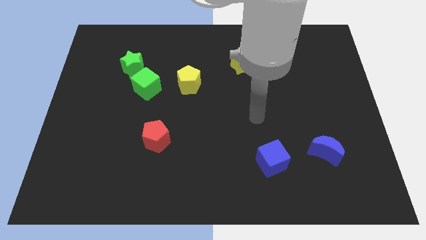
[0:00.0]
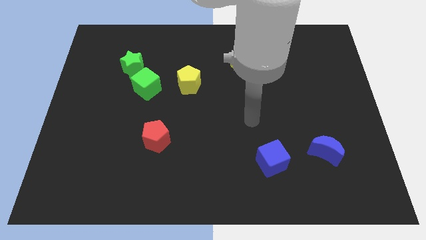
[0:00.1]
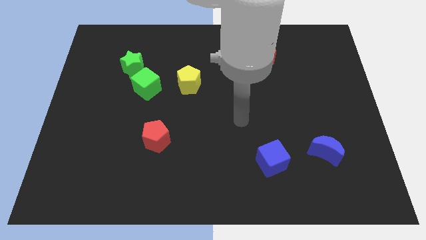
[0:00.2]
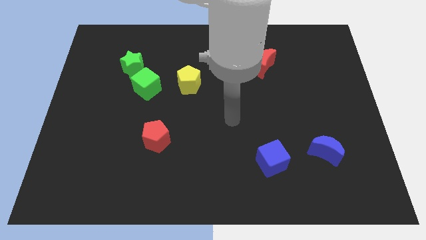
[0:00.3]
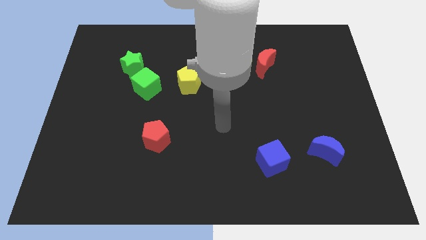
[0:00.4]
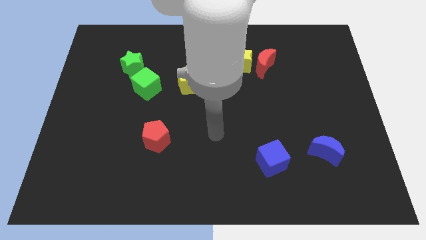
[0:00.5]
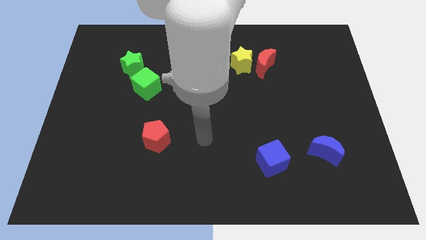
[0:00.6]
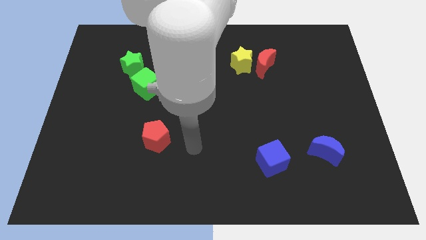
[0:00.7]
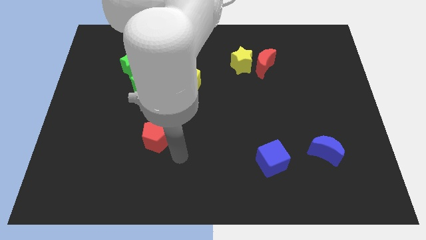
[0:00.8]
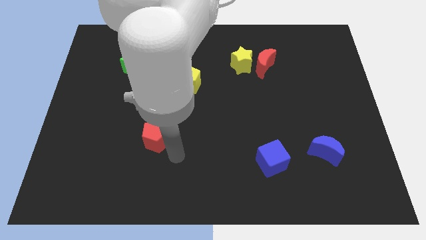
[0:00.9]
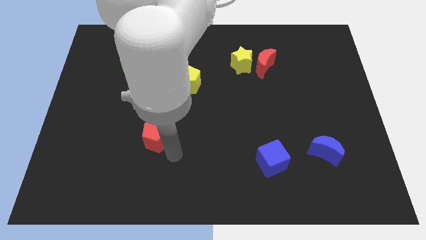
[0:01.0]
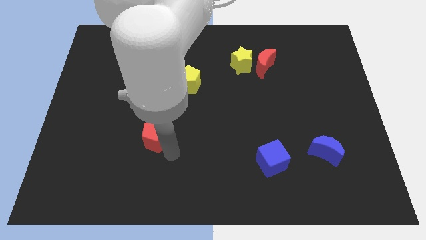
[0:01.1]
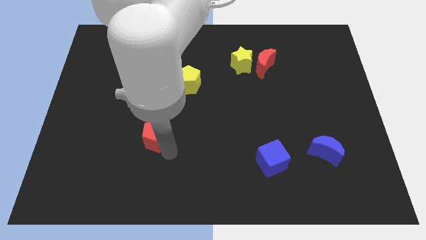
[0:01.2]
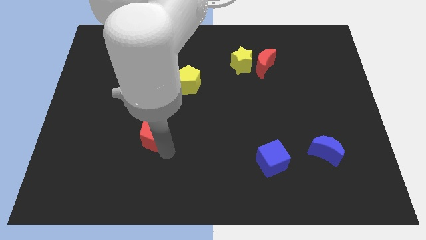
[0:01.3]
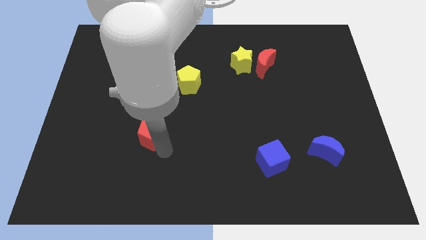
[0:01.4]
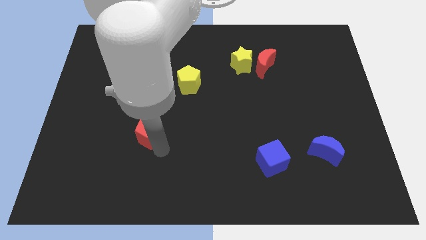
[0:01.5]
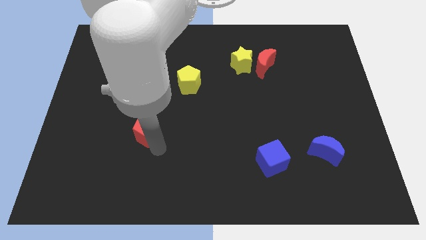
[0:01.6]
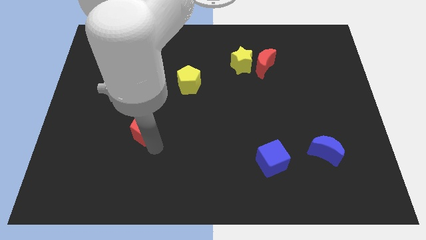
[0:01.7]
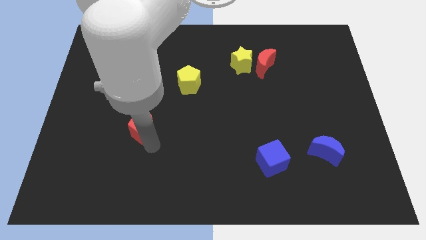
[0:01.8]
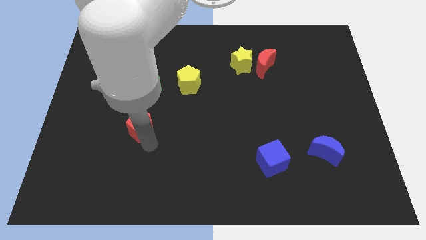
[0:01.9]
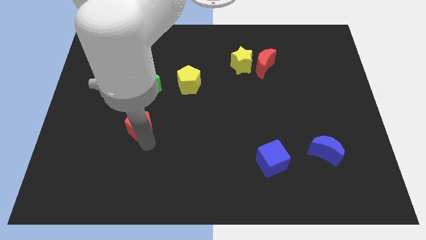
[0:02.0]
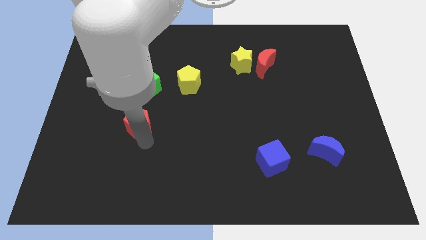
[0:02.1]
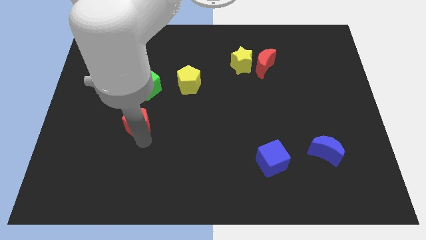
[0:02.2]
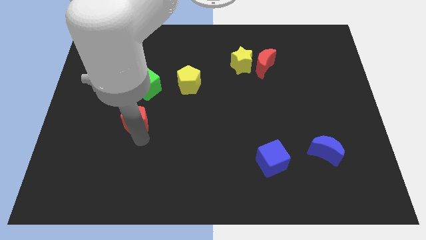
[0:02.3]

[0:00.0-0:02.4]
move the red pentagon slightly up and left diagonally

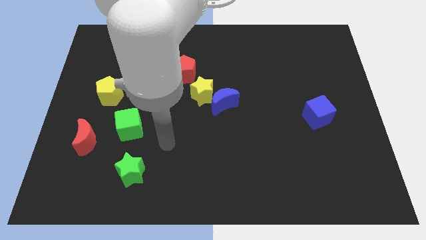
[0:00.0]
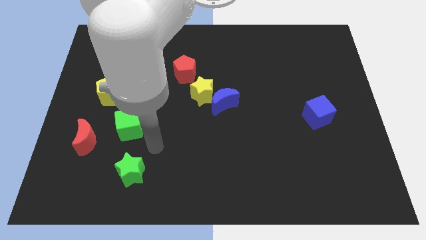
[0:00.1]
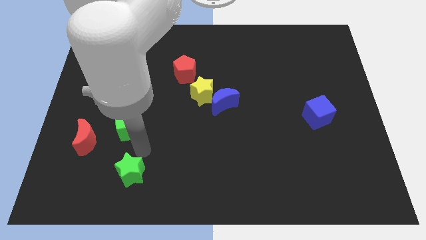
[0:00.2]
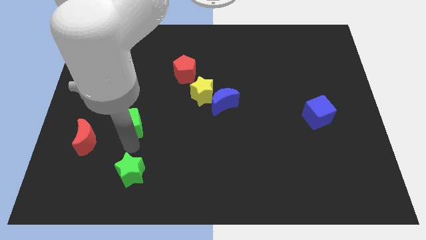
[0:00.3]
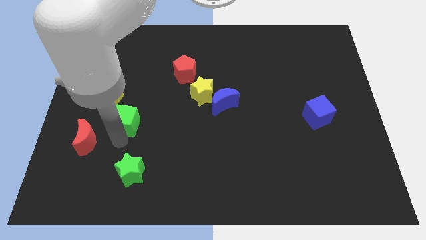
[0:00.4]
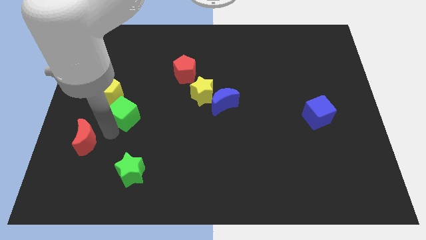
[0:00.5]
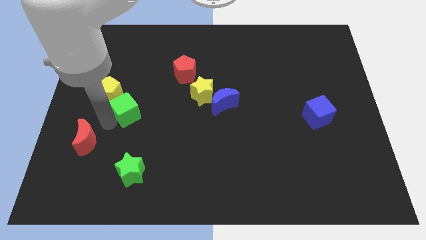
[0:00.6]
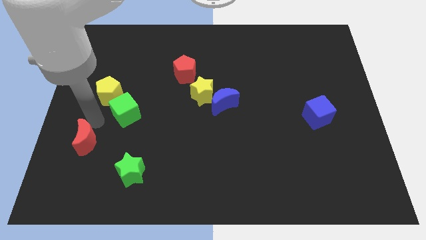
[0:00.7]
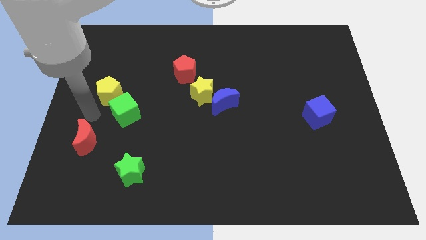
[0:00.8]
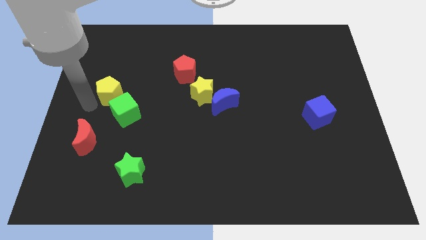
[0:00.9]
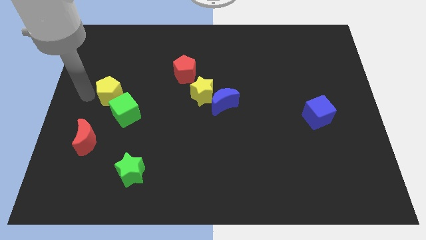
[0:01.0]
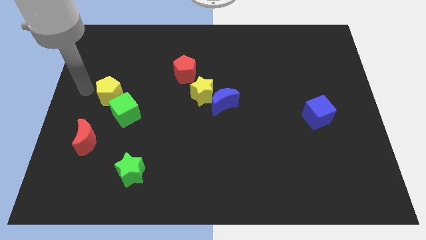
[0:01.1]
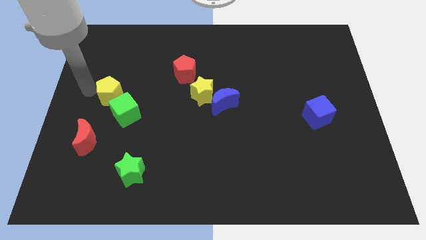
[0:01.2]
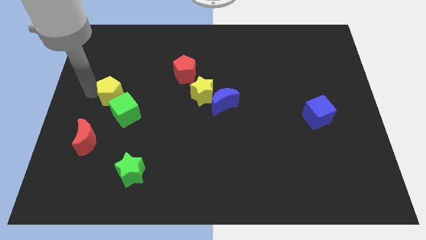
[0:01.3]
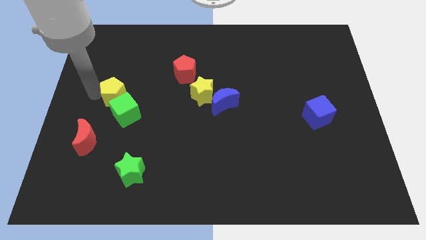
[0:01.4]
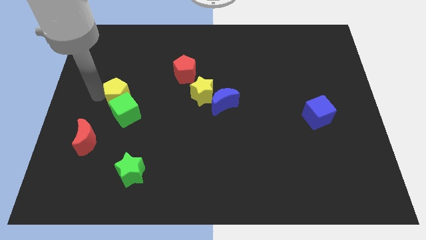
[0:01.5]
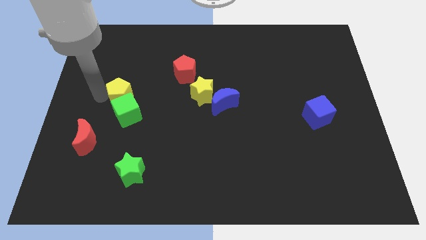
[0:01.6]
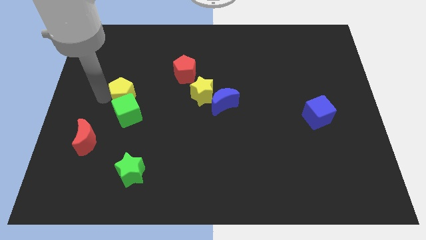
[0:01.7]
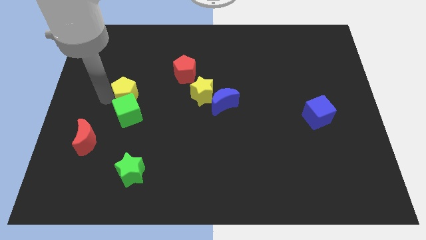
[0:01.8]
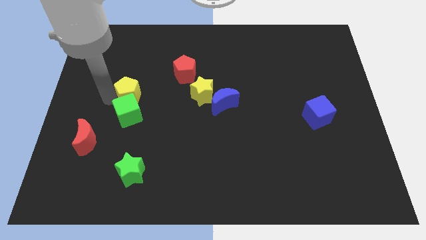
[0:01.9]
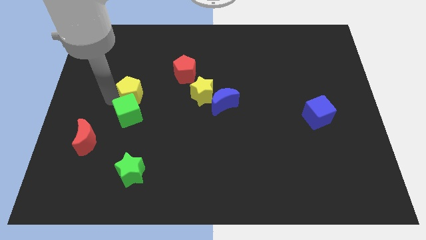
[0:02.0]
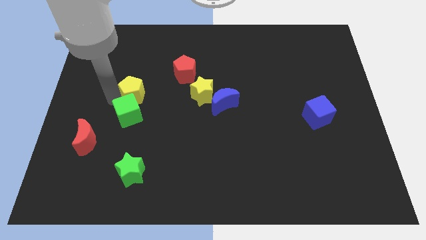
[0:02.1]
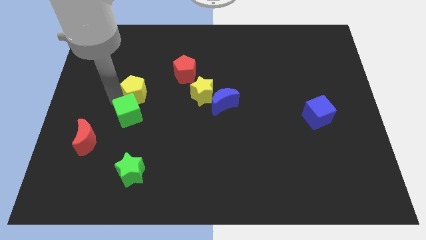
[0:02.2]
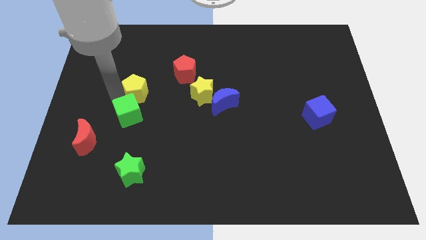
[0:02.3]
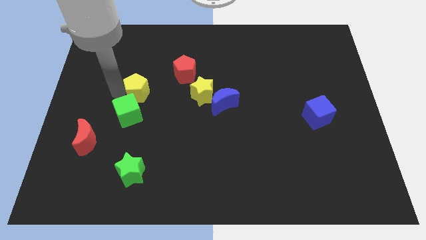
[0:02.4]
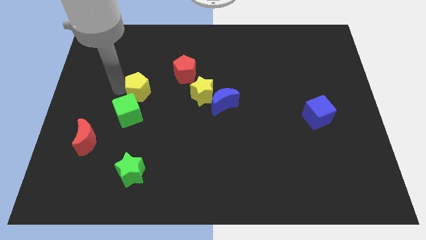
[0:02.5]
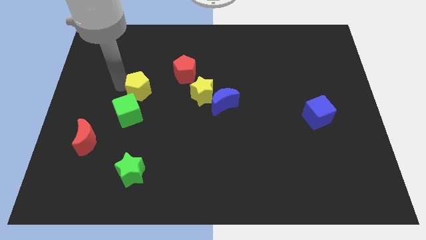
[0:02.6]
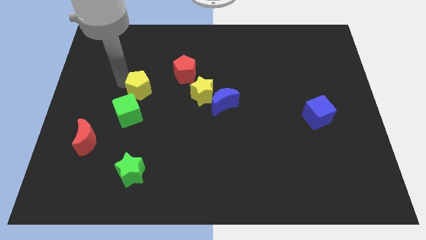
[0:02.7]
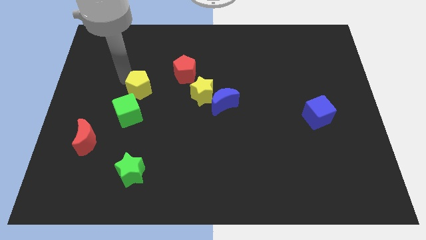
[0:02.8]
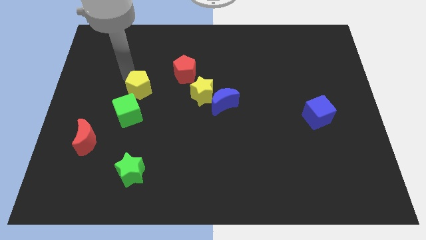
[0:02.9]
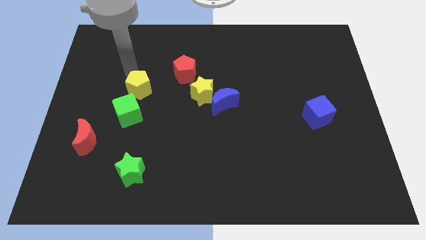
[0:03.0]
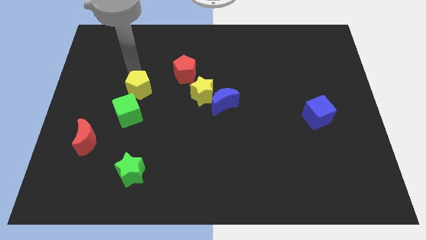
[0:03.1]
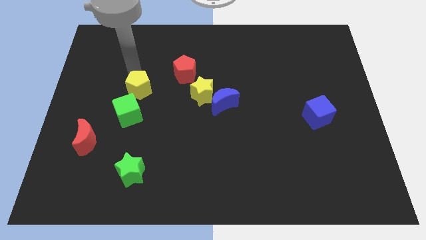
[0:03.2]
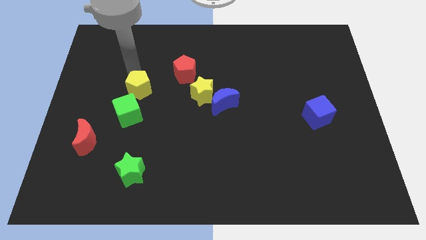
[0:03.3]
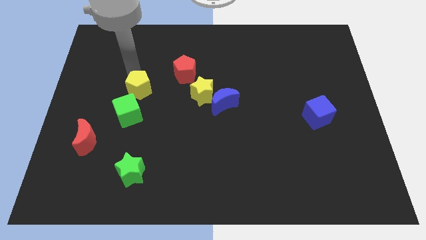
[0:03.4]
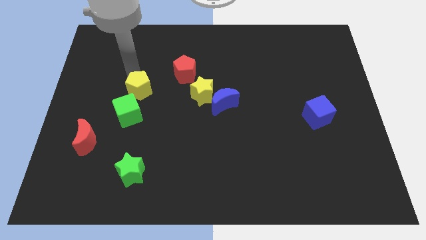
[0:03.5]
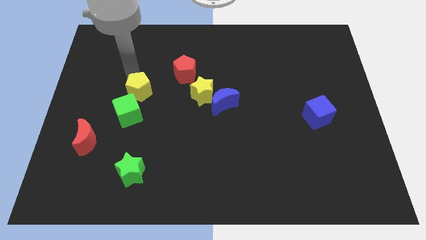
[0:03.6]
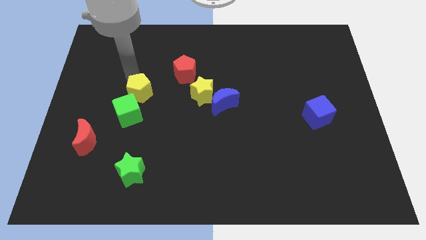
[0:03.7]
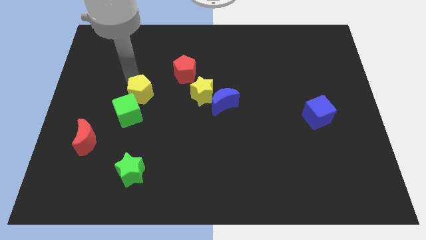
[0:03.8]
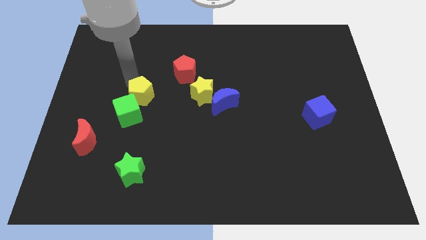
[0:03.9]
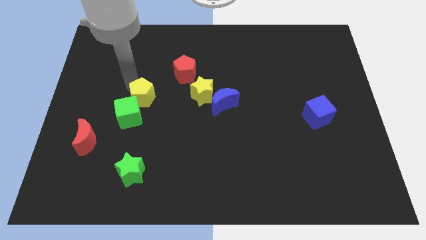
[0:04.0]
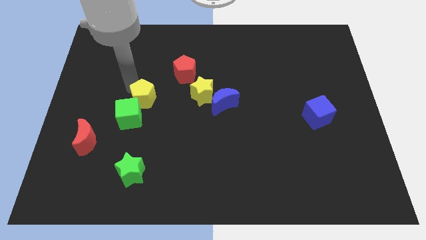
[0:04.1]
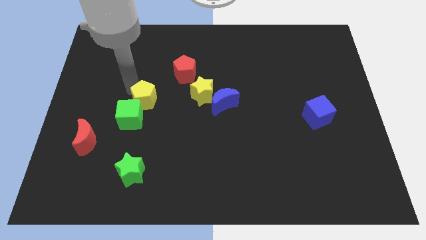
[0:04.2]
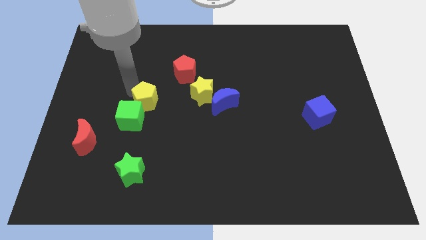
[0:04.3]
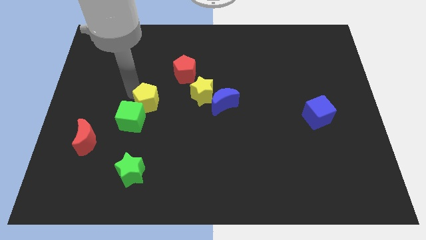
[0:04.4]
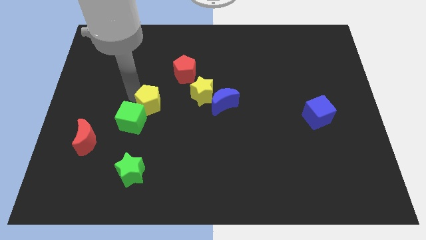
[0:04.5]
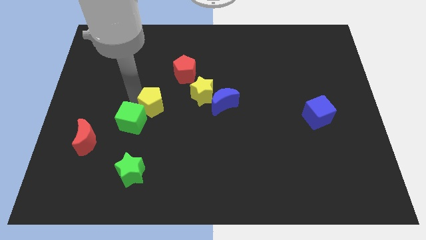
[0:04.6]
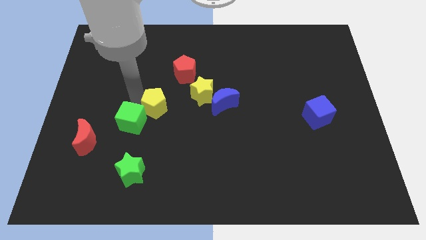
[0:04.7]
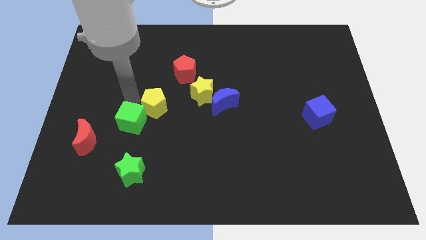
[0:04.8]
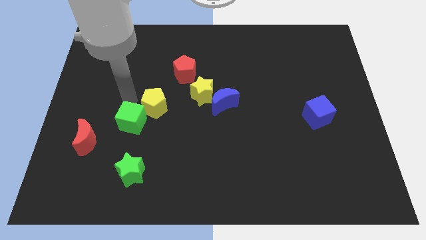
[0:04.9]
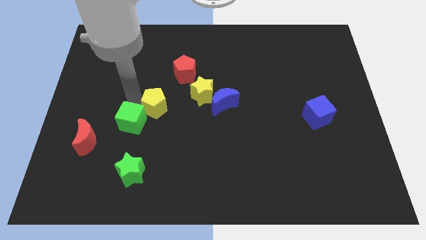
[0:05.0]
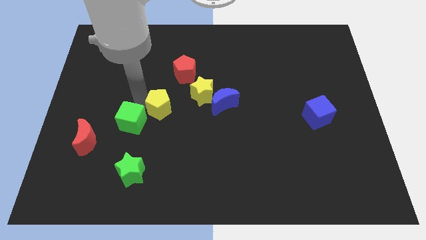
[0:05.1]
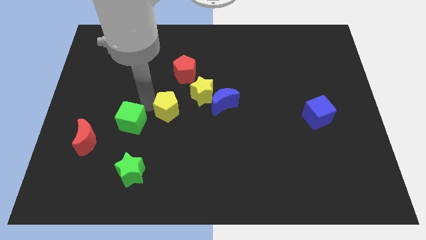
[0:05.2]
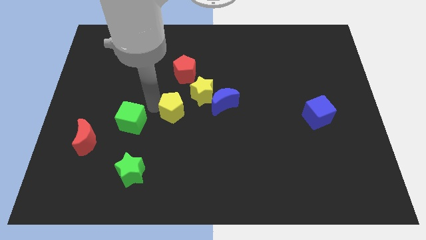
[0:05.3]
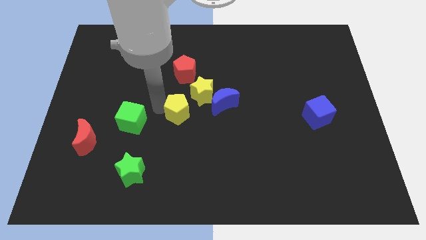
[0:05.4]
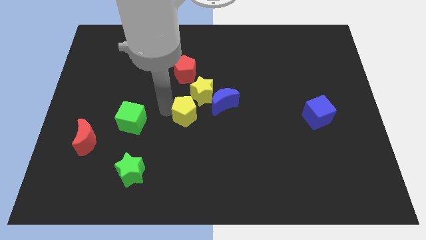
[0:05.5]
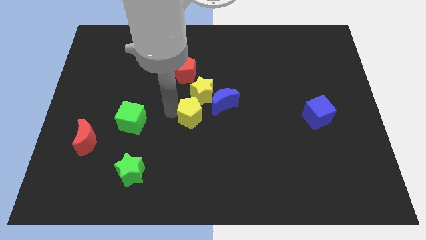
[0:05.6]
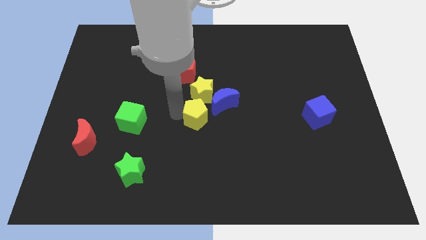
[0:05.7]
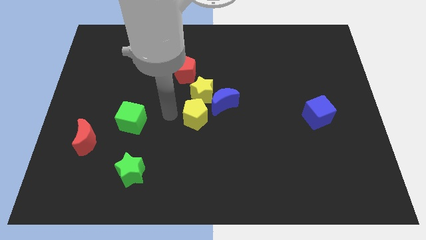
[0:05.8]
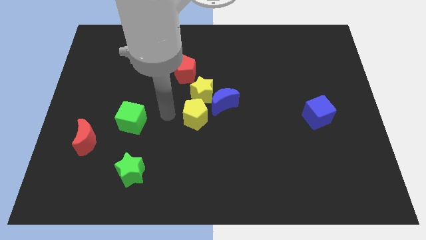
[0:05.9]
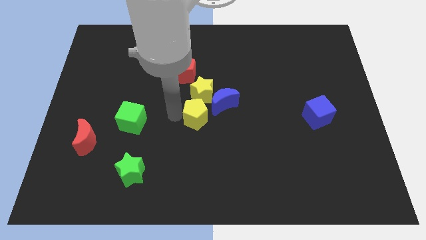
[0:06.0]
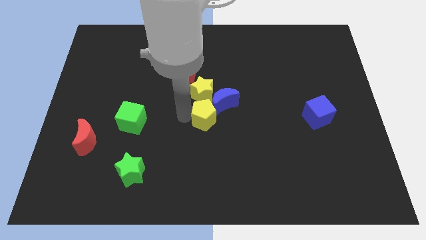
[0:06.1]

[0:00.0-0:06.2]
push the yellow pentagon to the right
